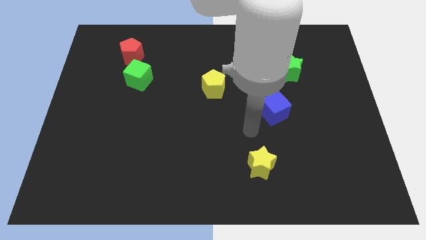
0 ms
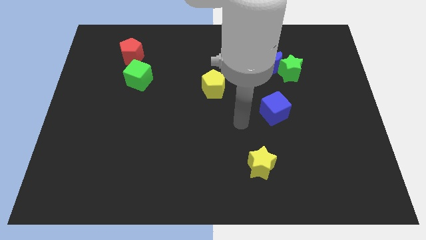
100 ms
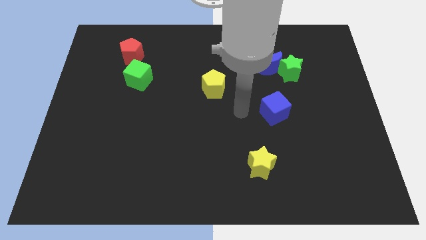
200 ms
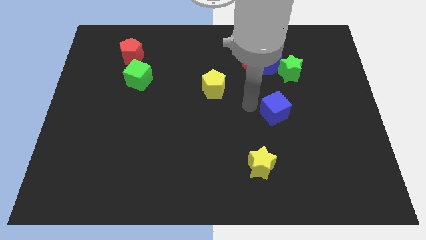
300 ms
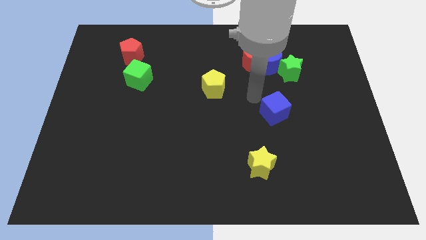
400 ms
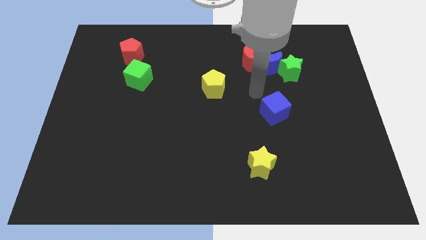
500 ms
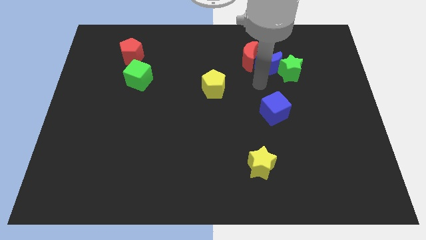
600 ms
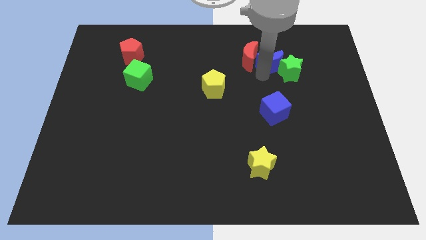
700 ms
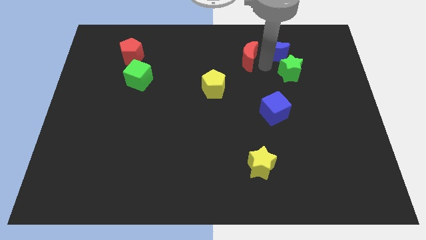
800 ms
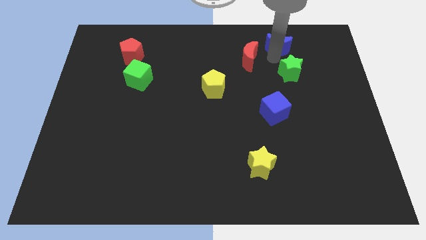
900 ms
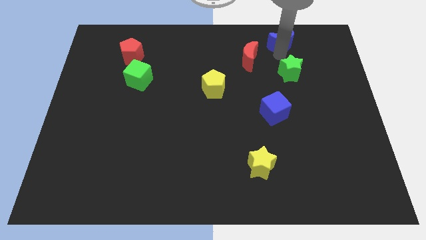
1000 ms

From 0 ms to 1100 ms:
move the green star away from the blue moon

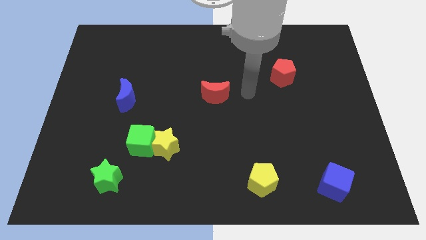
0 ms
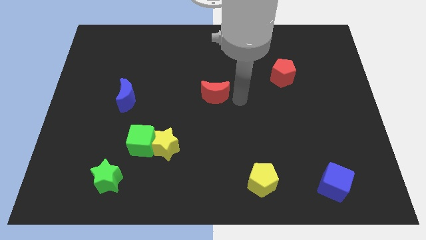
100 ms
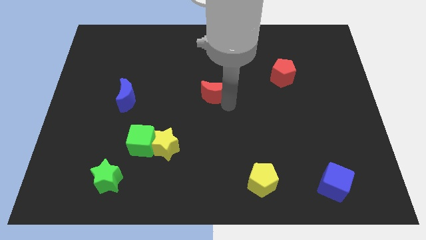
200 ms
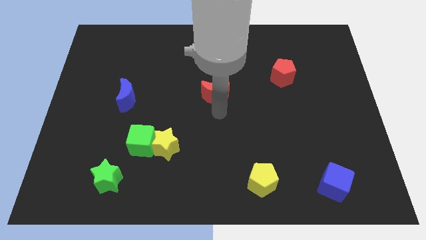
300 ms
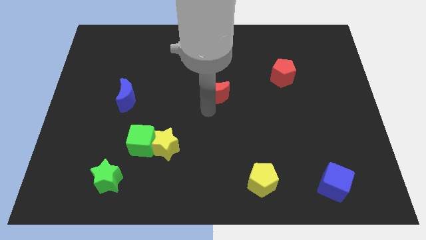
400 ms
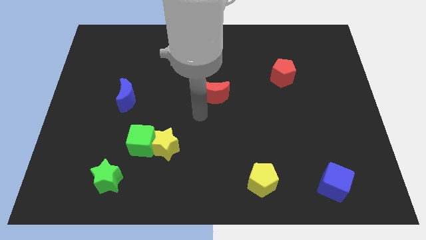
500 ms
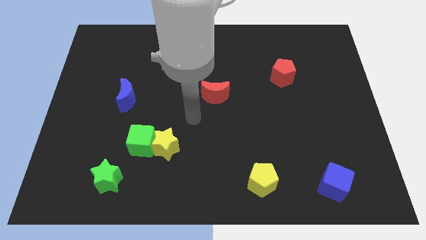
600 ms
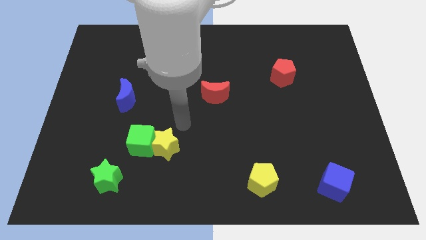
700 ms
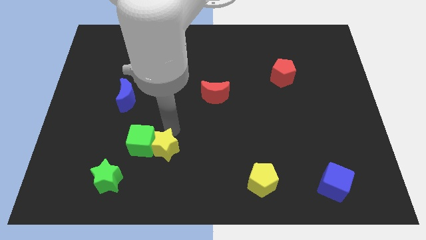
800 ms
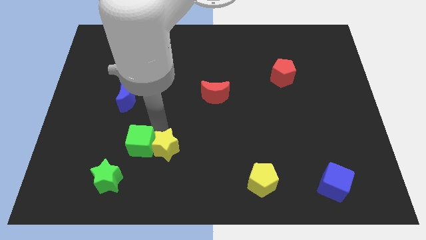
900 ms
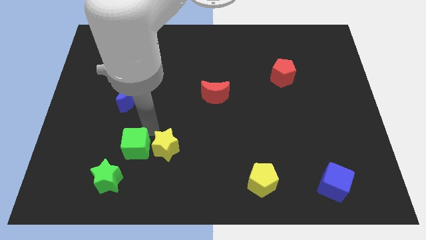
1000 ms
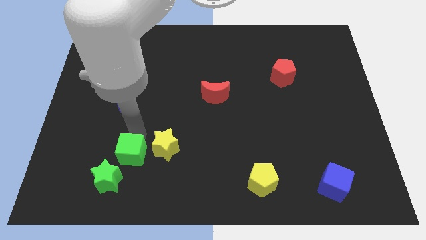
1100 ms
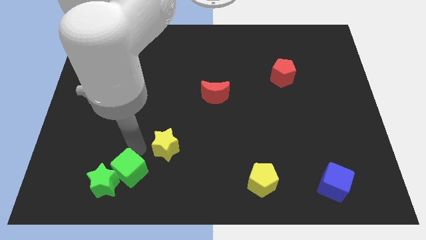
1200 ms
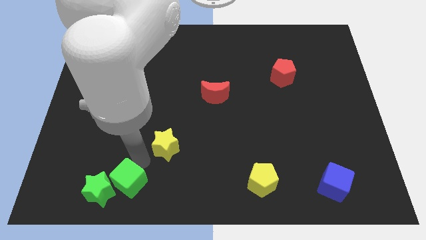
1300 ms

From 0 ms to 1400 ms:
pull the yellow star apart from the green cube

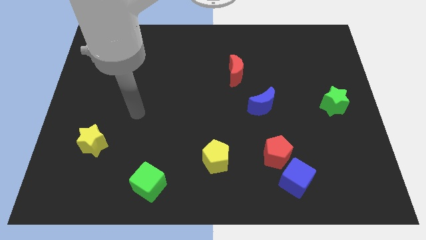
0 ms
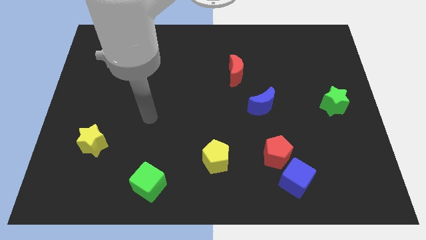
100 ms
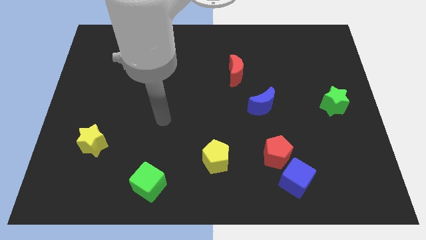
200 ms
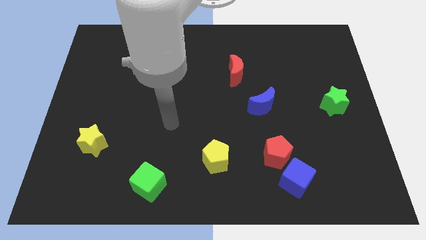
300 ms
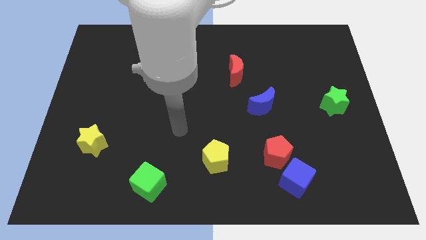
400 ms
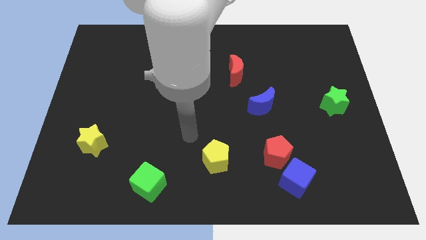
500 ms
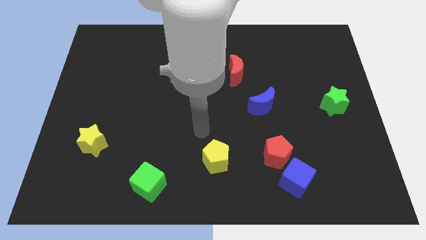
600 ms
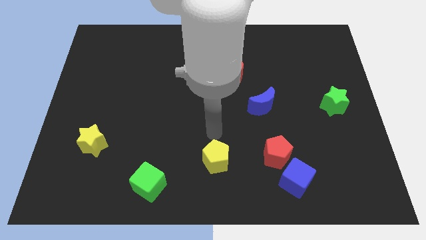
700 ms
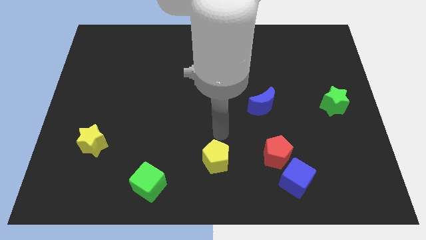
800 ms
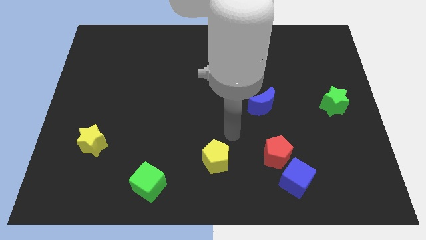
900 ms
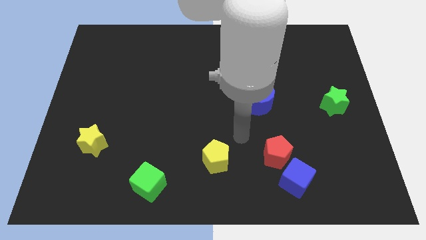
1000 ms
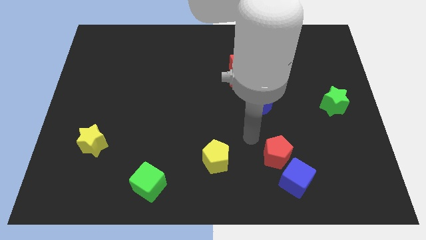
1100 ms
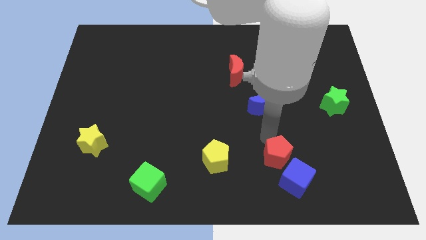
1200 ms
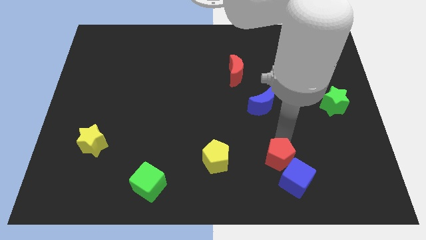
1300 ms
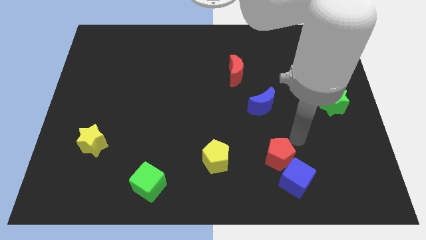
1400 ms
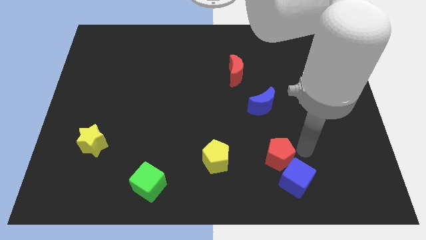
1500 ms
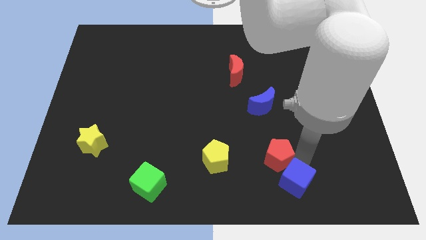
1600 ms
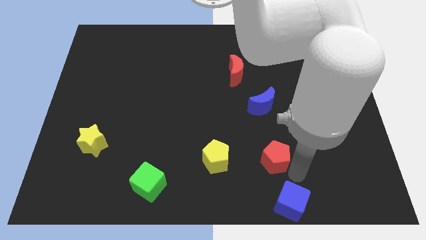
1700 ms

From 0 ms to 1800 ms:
move the red pentagon away from the blue cube

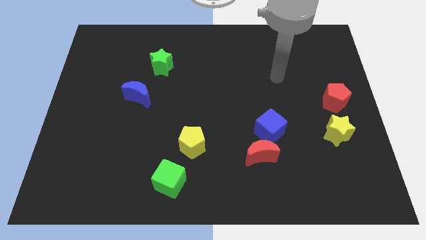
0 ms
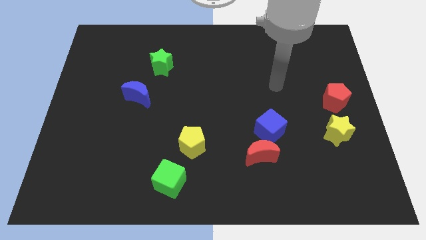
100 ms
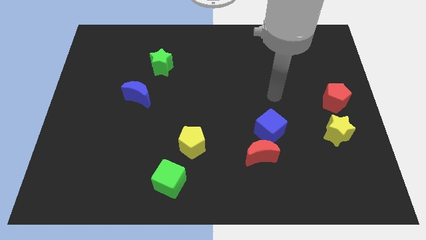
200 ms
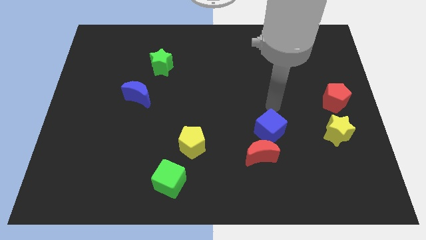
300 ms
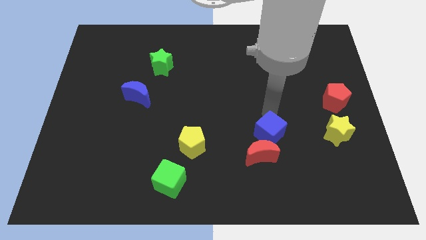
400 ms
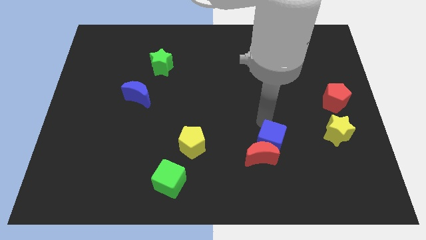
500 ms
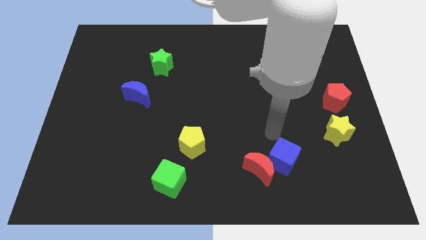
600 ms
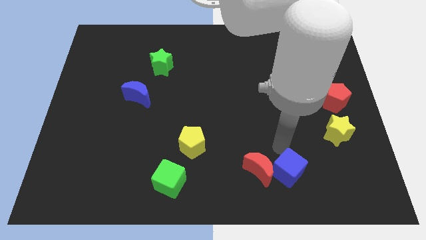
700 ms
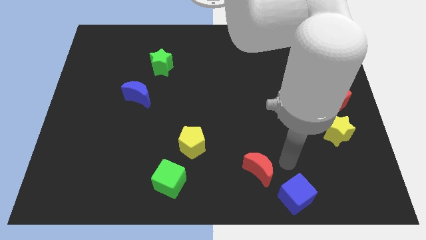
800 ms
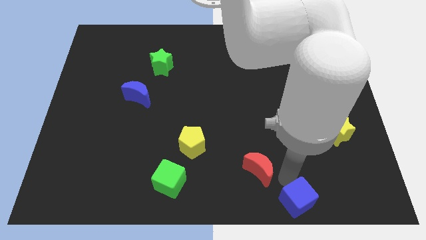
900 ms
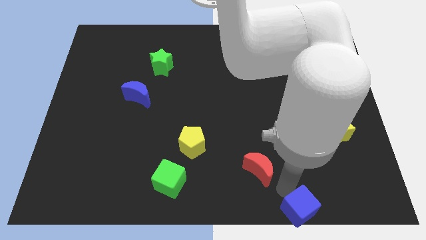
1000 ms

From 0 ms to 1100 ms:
move the red moon away from the blue cube

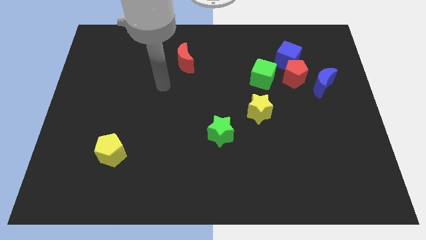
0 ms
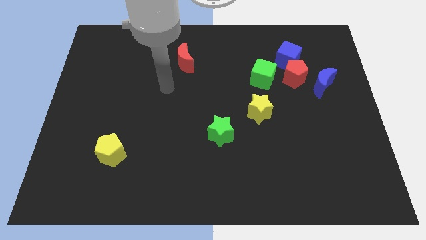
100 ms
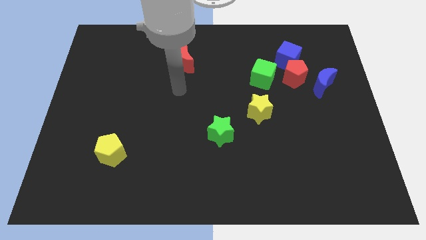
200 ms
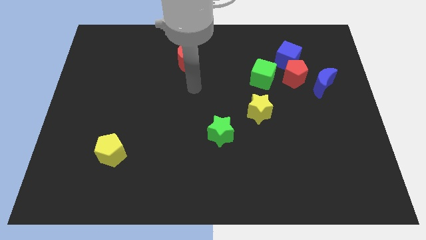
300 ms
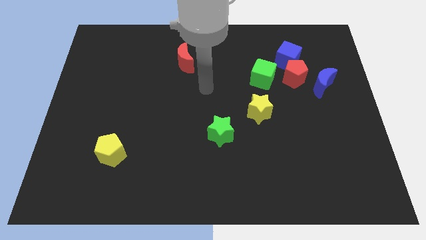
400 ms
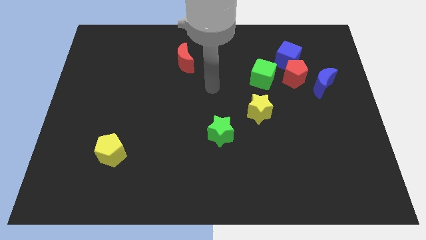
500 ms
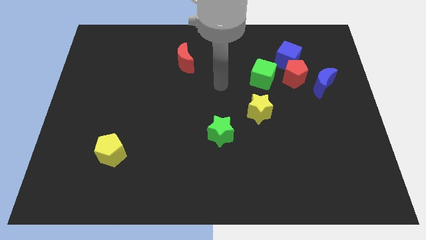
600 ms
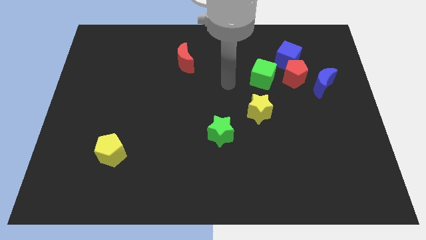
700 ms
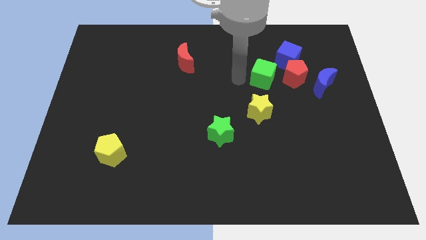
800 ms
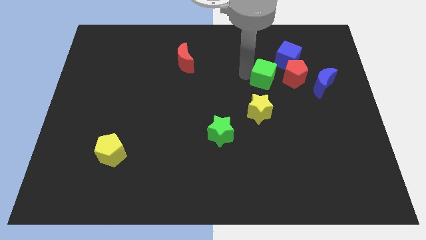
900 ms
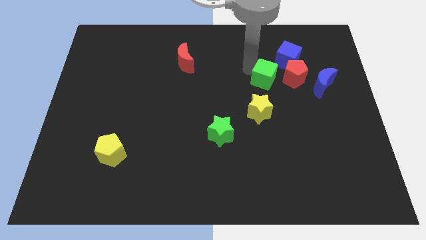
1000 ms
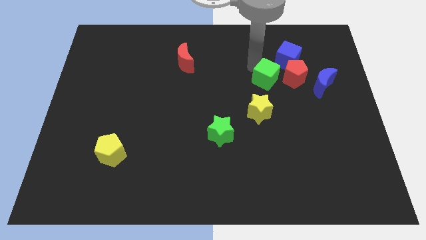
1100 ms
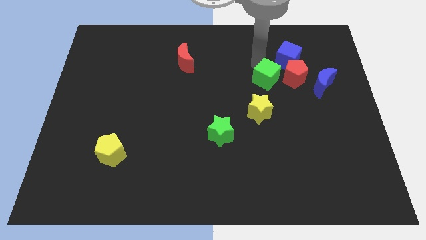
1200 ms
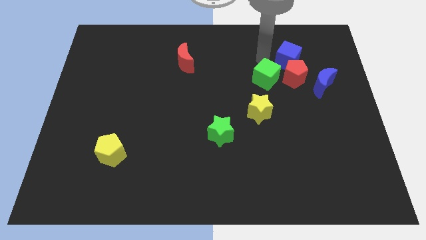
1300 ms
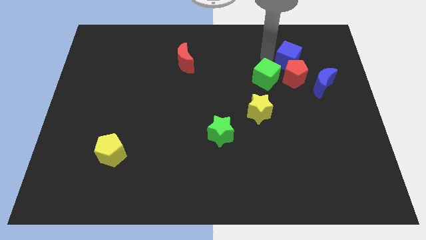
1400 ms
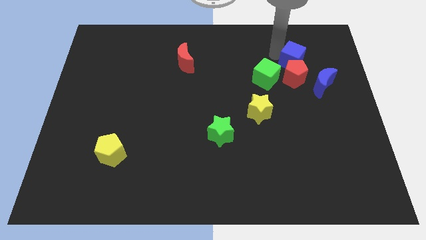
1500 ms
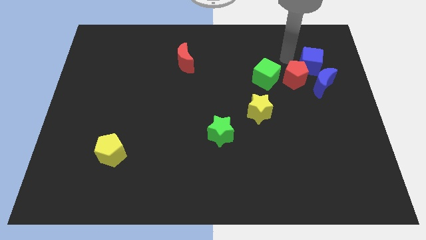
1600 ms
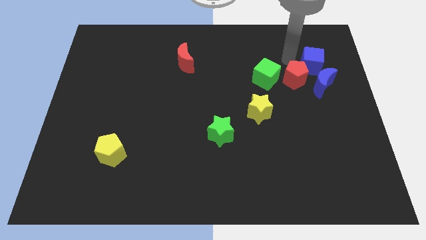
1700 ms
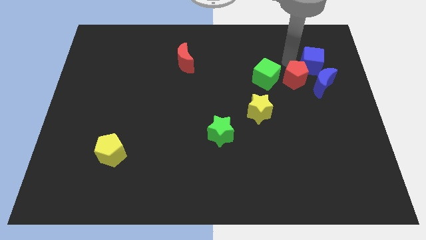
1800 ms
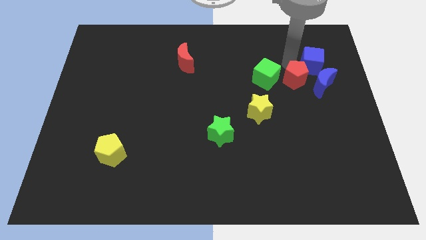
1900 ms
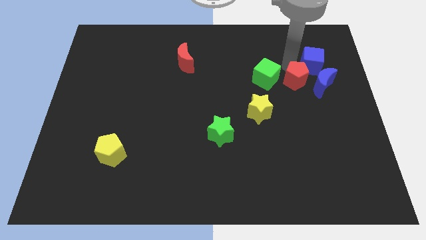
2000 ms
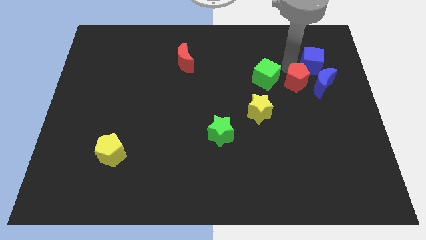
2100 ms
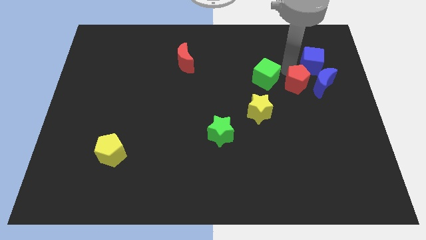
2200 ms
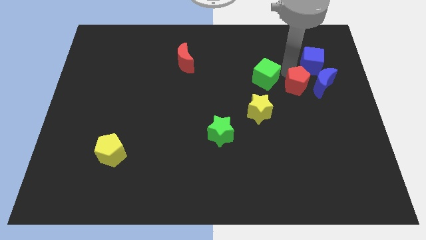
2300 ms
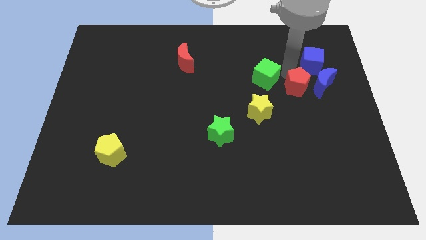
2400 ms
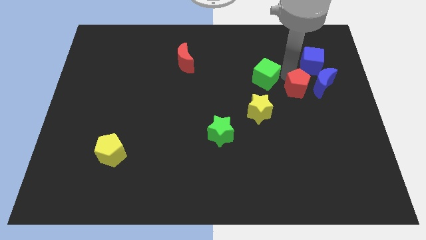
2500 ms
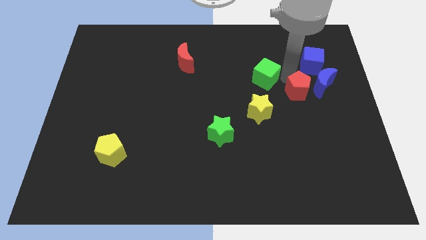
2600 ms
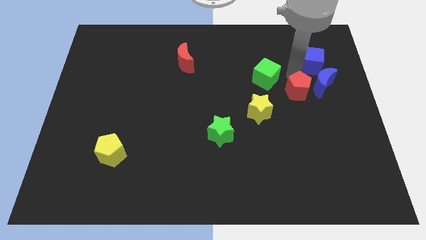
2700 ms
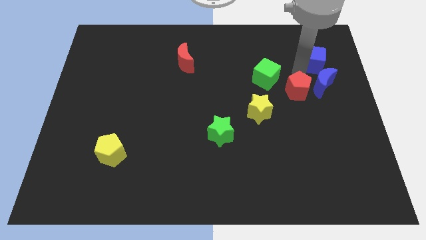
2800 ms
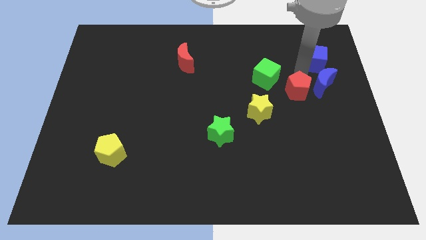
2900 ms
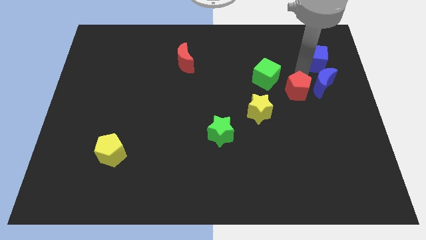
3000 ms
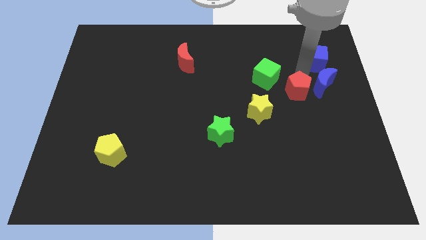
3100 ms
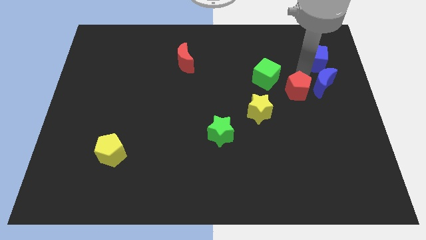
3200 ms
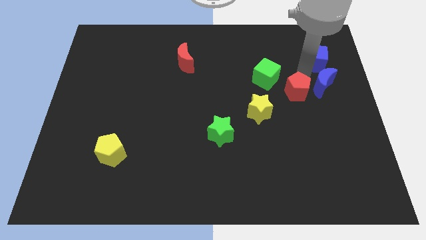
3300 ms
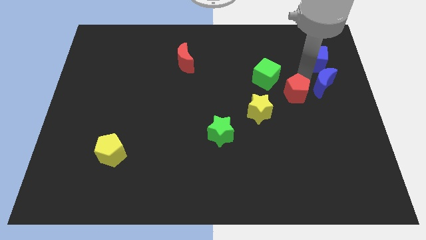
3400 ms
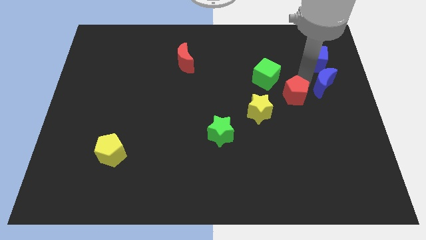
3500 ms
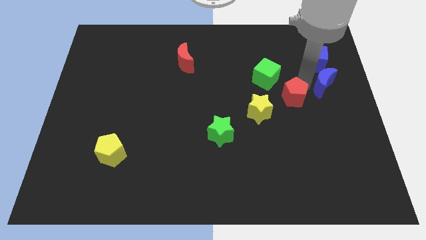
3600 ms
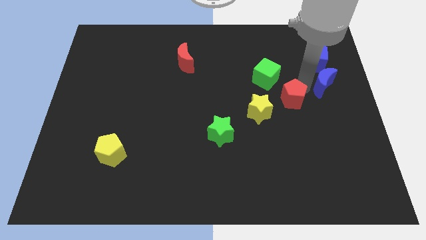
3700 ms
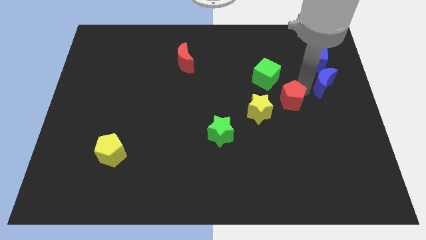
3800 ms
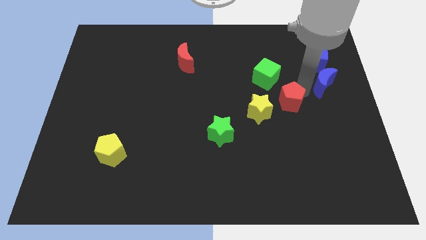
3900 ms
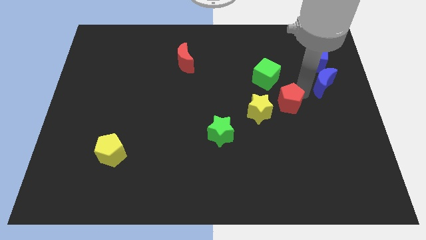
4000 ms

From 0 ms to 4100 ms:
pull the red pentagon apart from the blue cube, blue moon, and green cube
